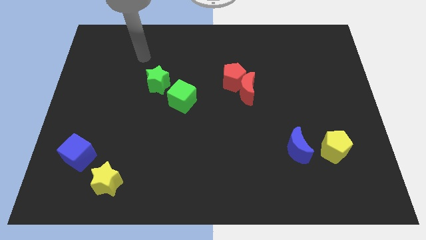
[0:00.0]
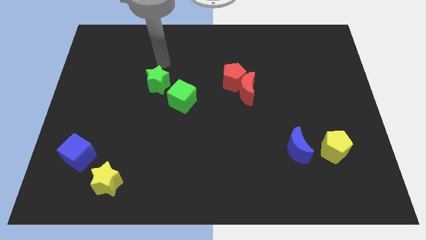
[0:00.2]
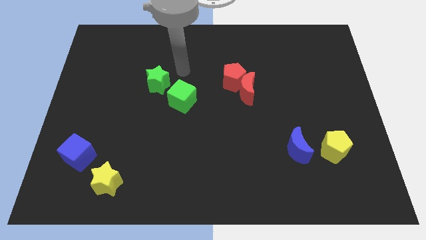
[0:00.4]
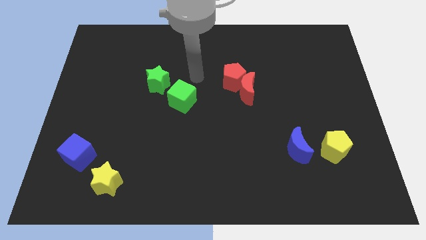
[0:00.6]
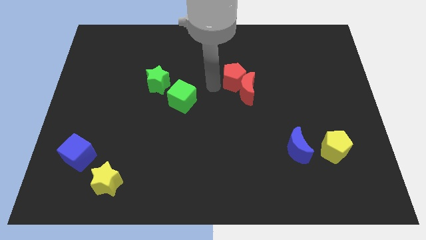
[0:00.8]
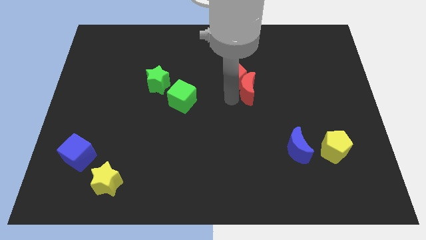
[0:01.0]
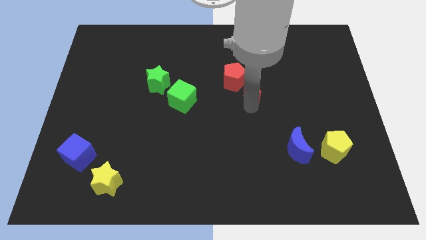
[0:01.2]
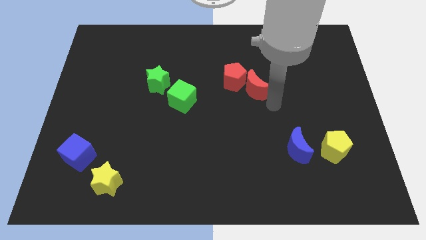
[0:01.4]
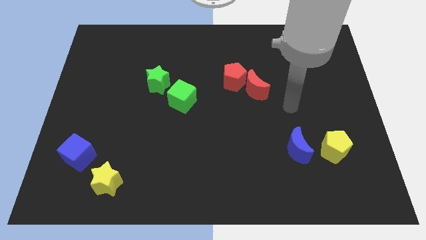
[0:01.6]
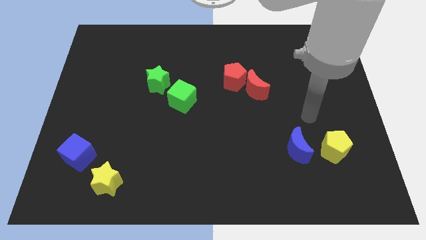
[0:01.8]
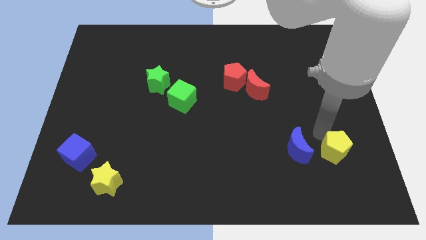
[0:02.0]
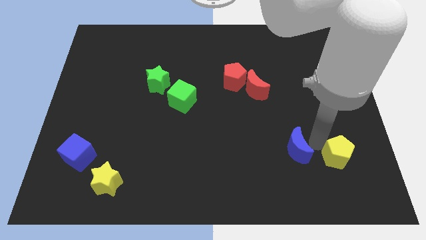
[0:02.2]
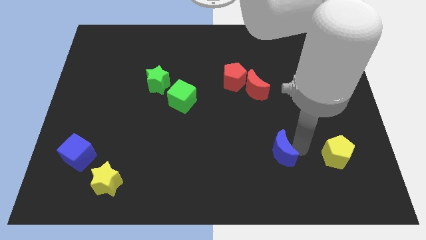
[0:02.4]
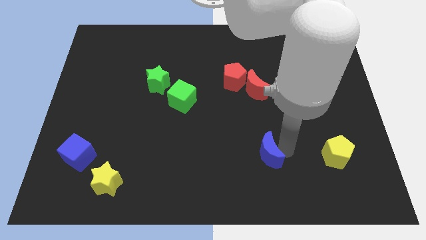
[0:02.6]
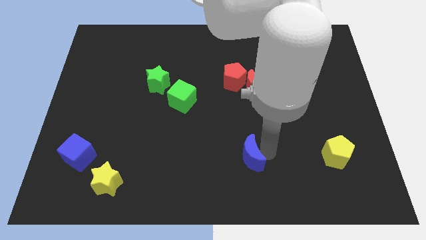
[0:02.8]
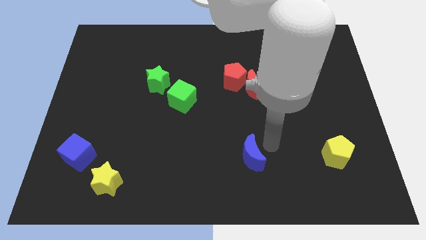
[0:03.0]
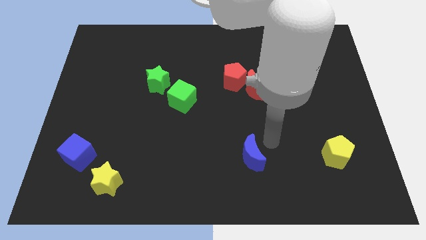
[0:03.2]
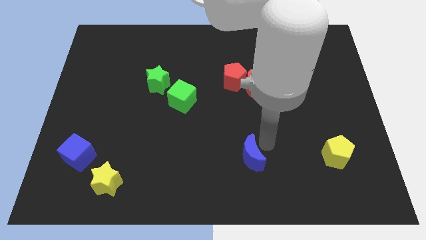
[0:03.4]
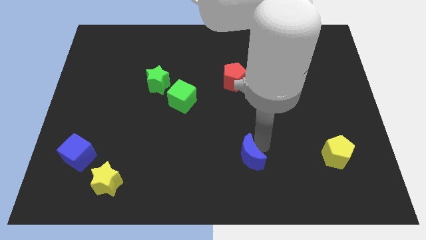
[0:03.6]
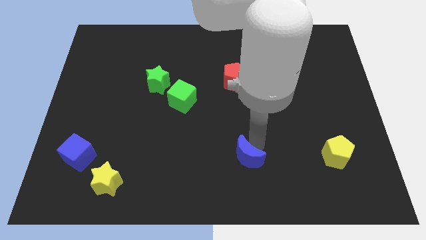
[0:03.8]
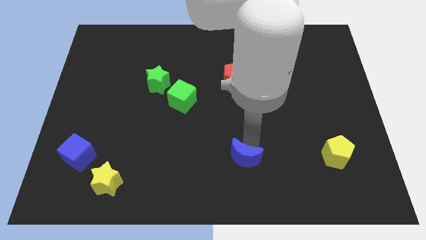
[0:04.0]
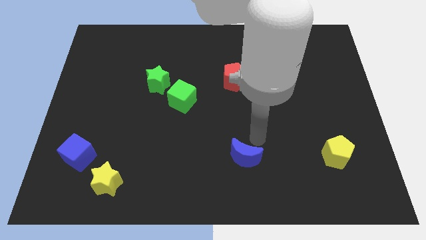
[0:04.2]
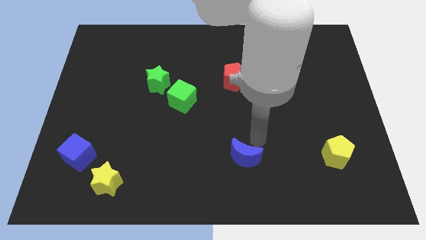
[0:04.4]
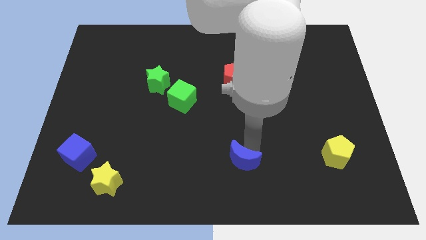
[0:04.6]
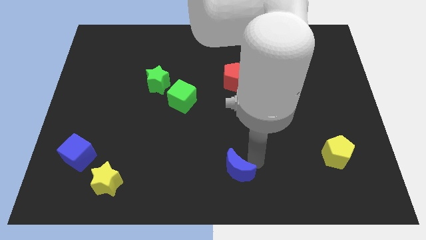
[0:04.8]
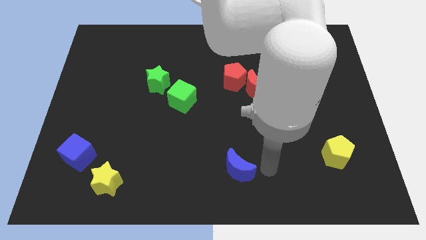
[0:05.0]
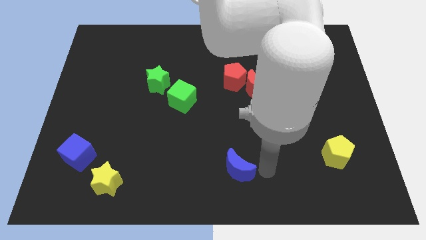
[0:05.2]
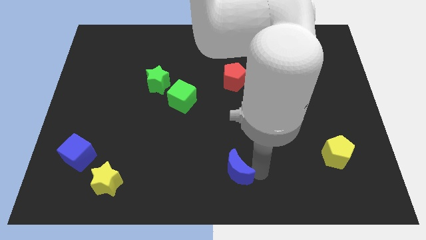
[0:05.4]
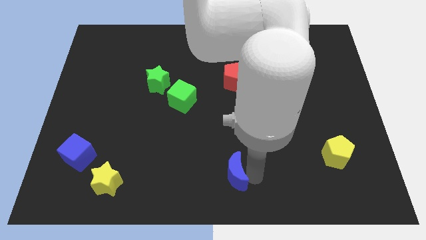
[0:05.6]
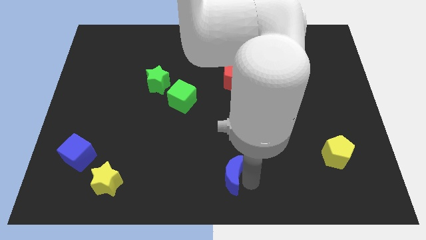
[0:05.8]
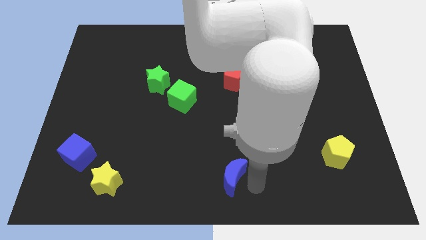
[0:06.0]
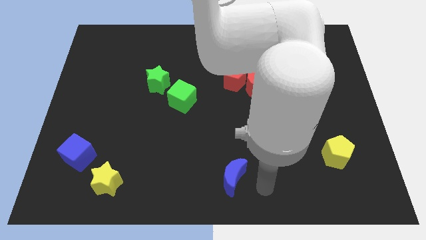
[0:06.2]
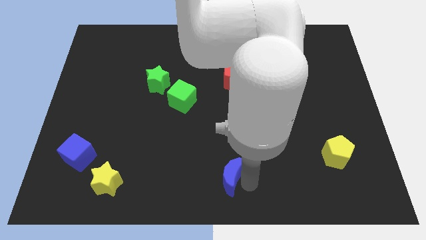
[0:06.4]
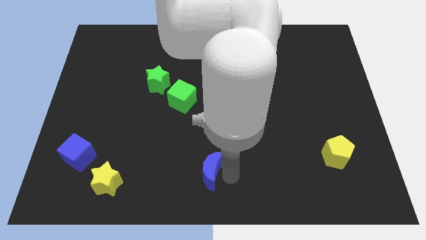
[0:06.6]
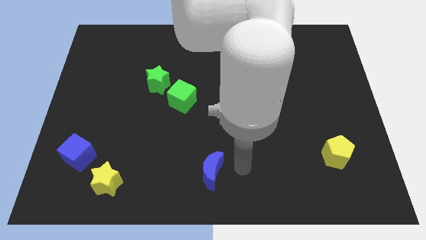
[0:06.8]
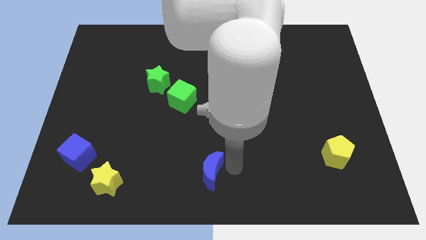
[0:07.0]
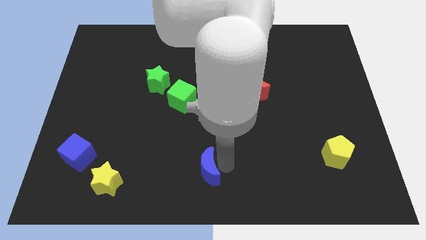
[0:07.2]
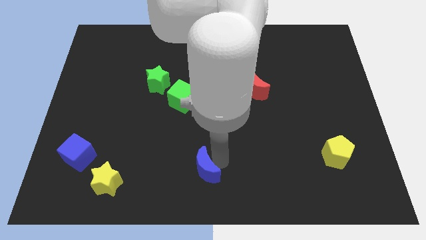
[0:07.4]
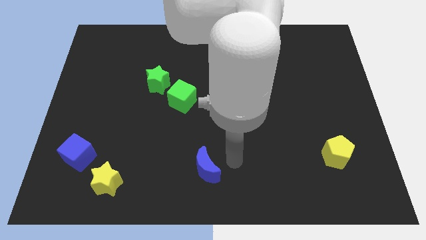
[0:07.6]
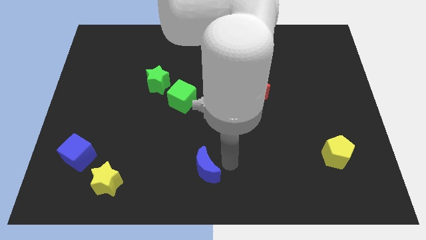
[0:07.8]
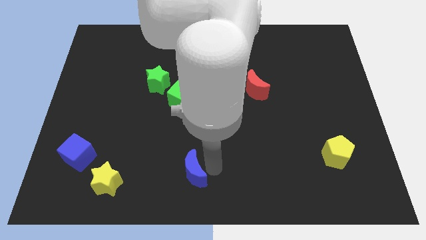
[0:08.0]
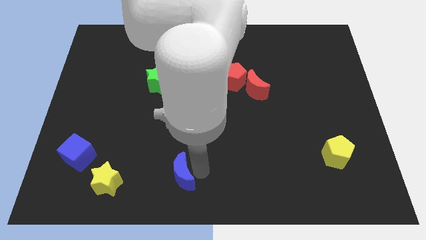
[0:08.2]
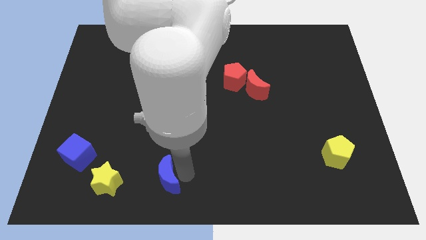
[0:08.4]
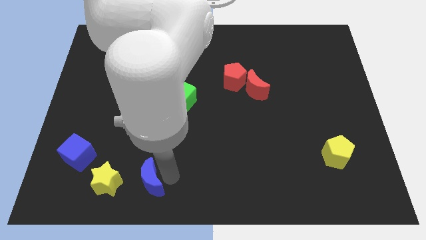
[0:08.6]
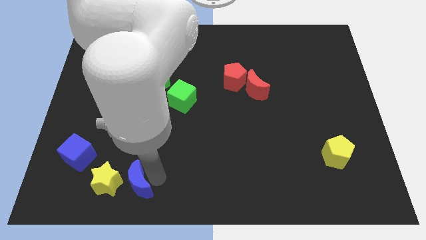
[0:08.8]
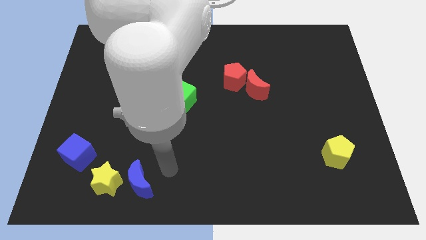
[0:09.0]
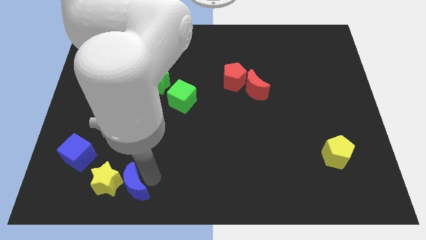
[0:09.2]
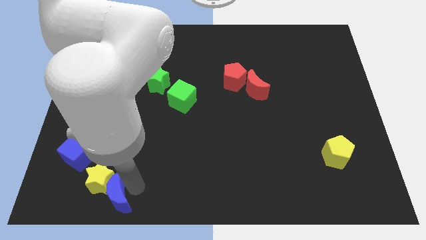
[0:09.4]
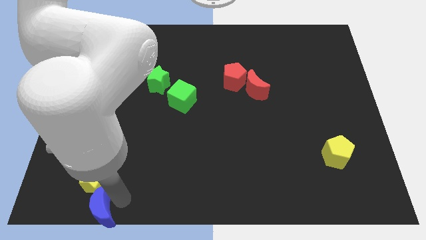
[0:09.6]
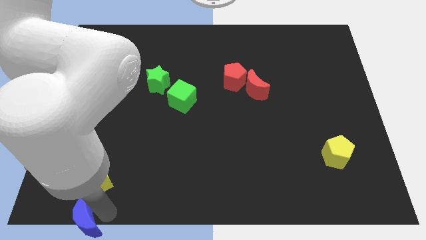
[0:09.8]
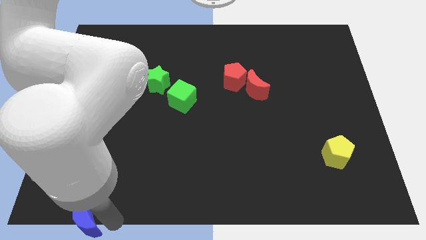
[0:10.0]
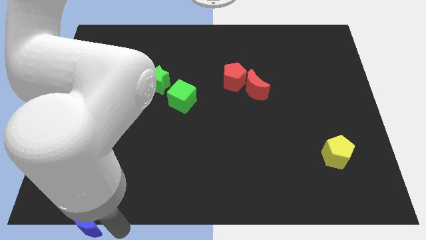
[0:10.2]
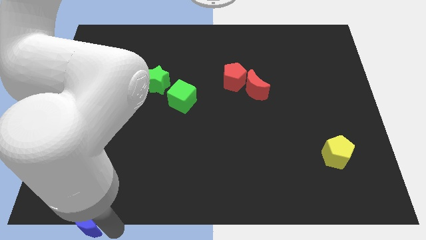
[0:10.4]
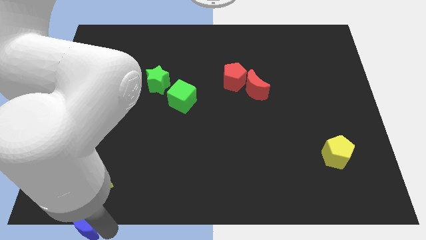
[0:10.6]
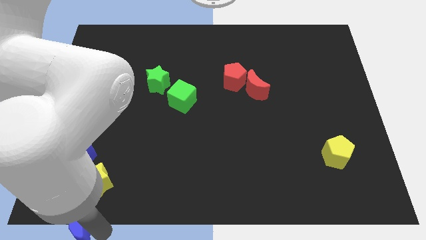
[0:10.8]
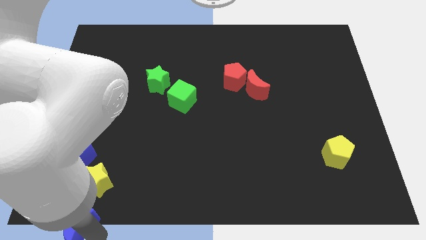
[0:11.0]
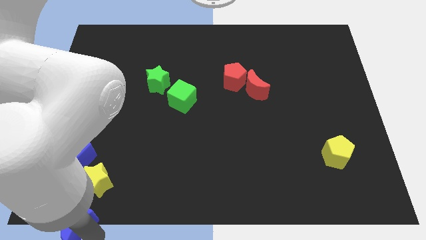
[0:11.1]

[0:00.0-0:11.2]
put the blue moon to the bottom left
